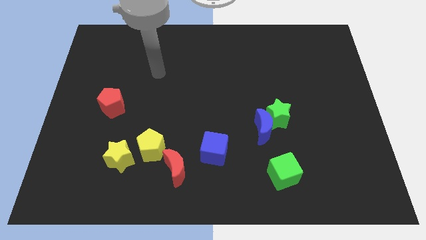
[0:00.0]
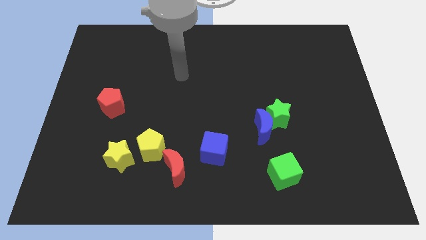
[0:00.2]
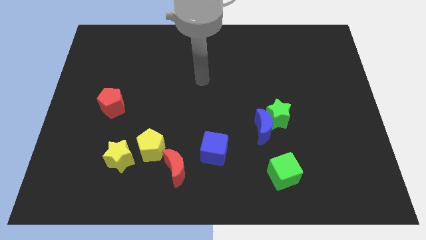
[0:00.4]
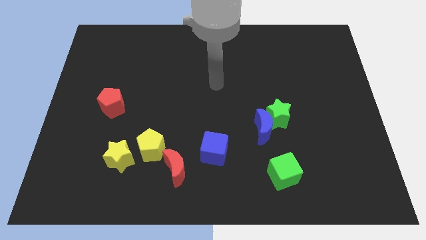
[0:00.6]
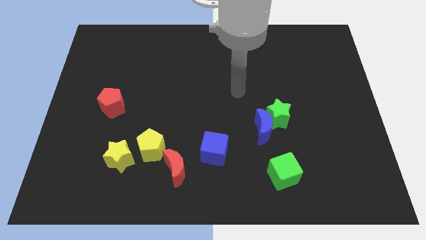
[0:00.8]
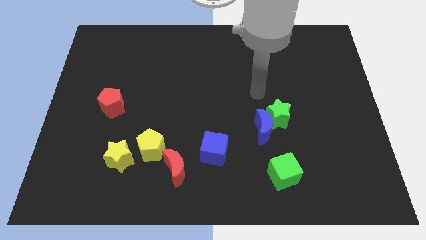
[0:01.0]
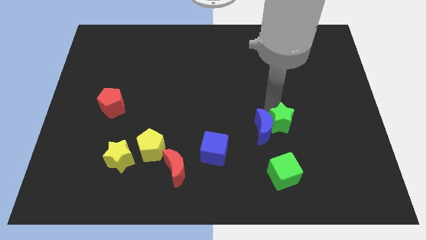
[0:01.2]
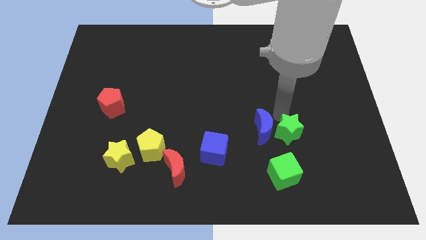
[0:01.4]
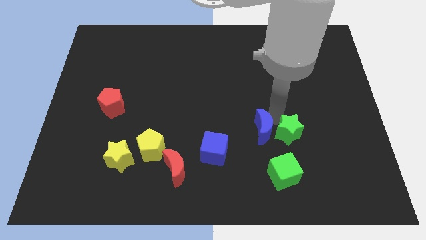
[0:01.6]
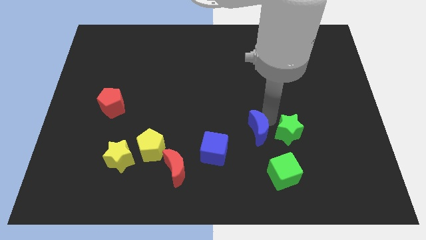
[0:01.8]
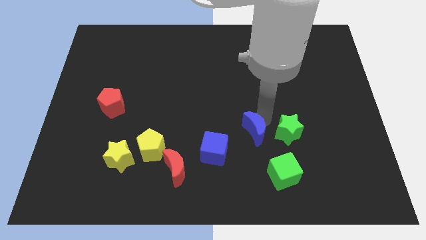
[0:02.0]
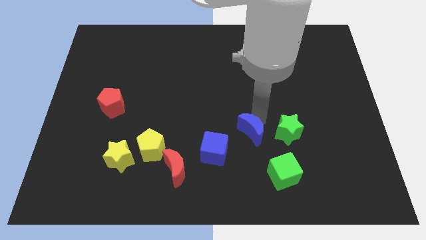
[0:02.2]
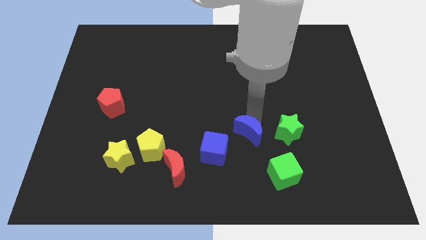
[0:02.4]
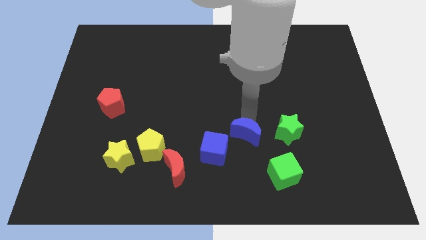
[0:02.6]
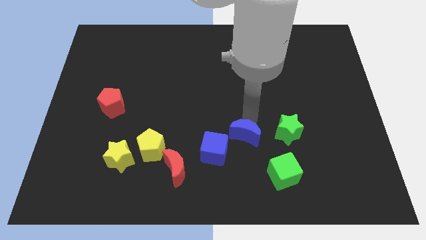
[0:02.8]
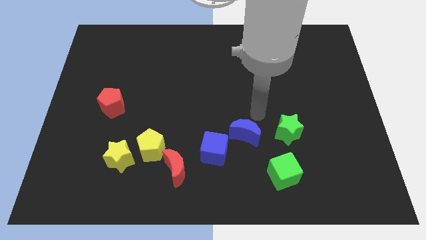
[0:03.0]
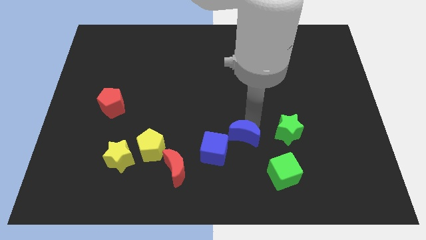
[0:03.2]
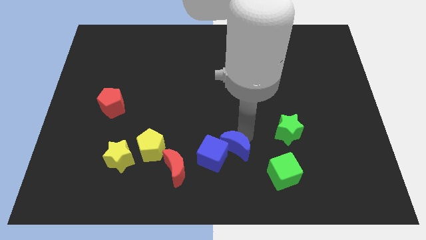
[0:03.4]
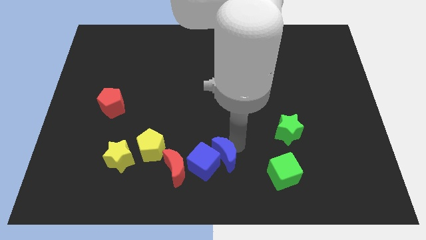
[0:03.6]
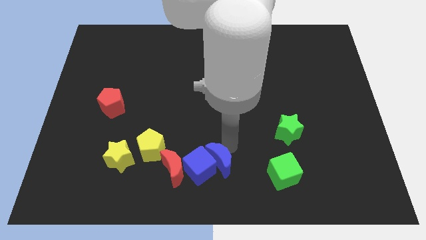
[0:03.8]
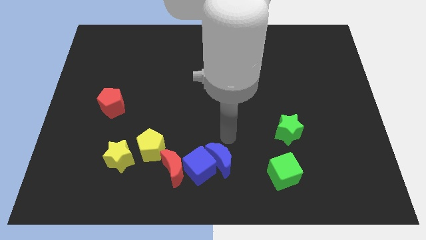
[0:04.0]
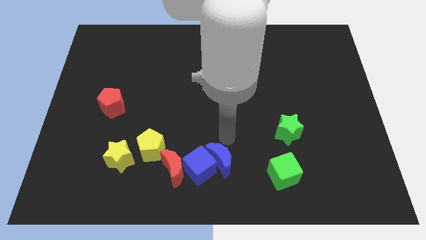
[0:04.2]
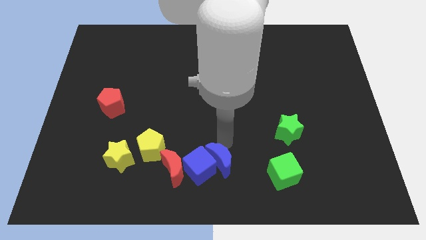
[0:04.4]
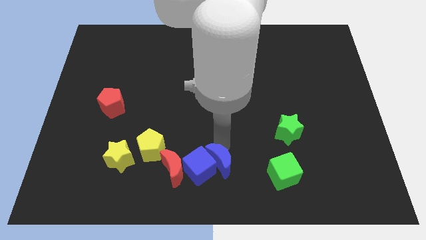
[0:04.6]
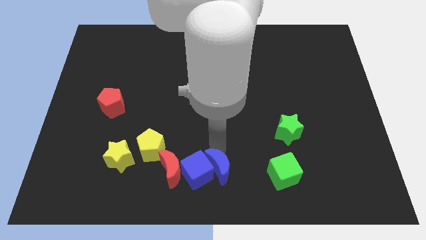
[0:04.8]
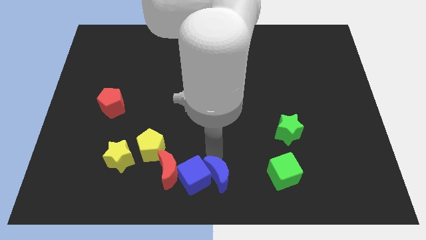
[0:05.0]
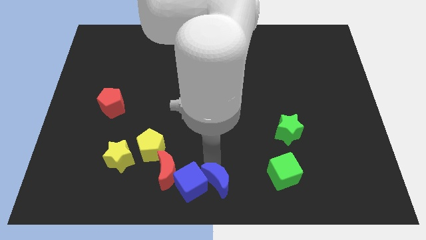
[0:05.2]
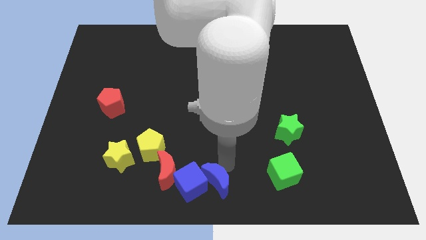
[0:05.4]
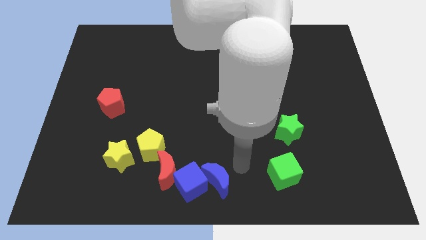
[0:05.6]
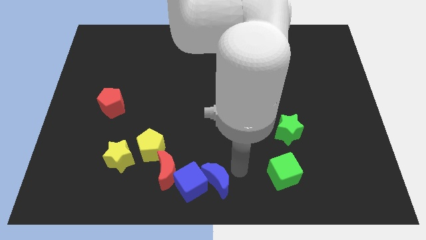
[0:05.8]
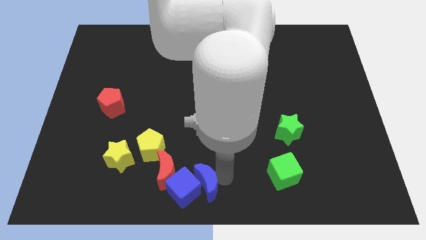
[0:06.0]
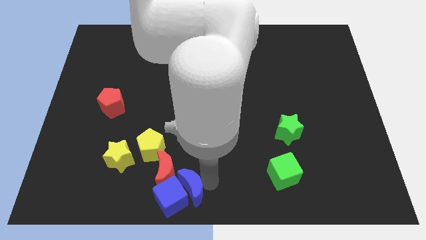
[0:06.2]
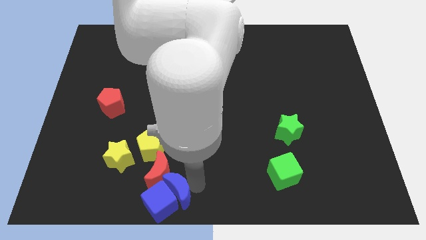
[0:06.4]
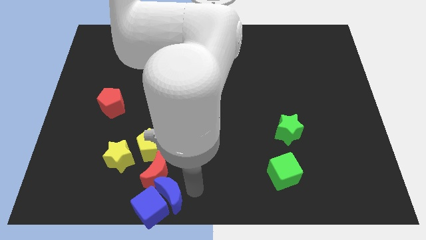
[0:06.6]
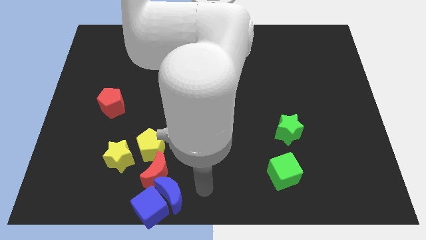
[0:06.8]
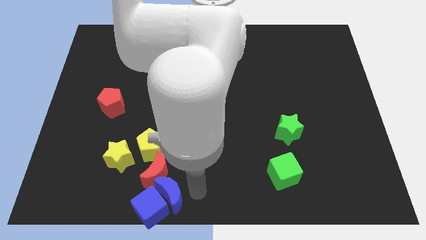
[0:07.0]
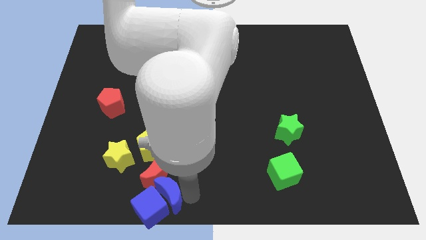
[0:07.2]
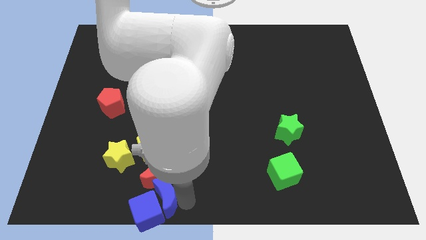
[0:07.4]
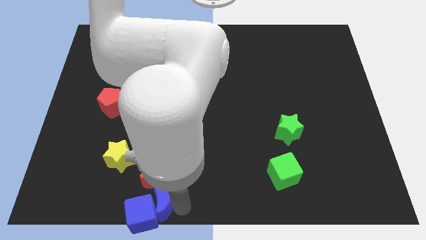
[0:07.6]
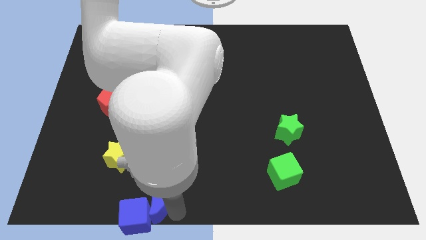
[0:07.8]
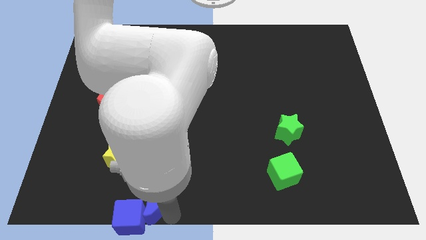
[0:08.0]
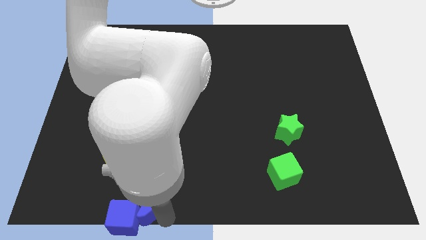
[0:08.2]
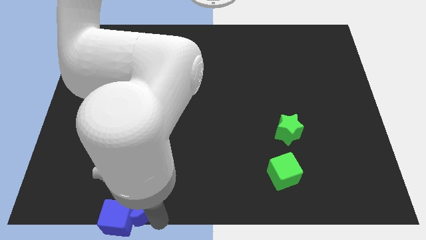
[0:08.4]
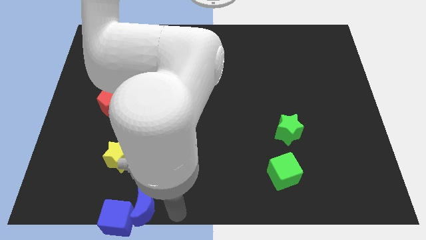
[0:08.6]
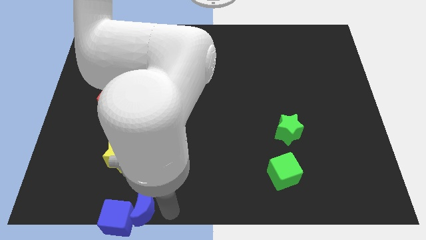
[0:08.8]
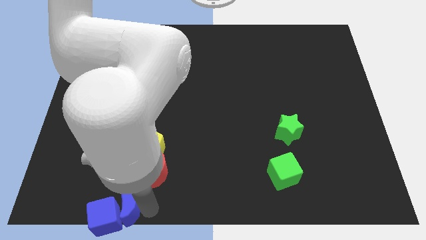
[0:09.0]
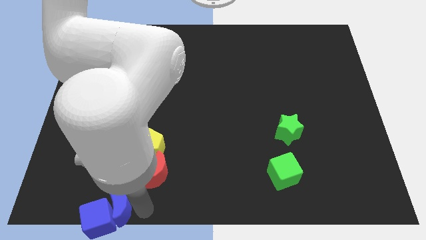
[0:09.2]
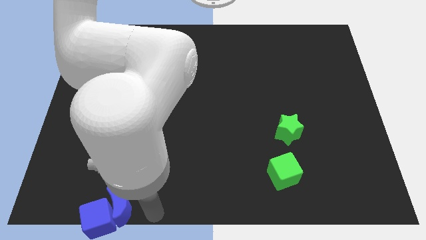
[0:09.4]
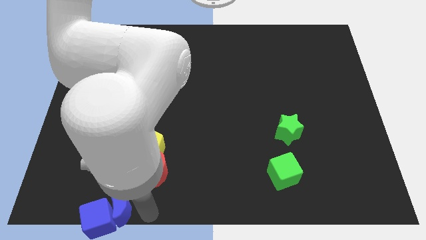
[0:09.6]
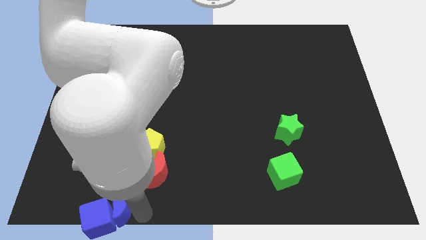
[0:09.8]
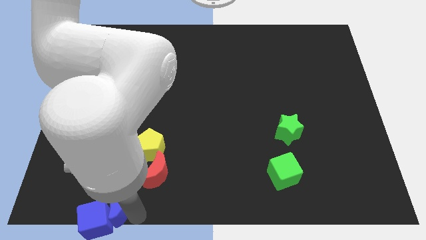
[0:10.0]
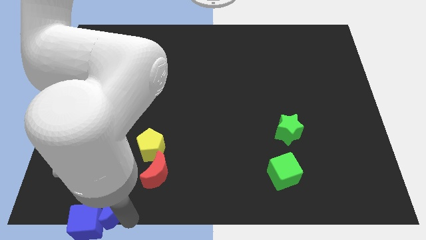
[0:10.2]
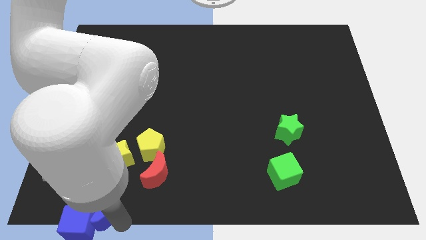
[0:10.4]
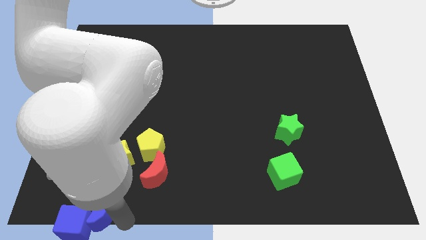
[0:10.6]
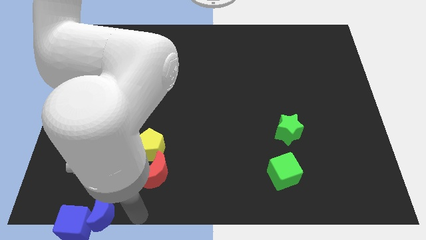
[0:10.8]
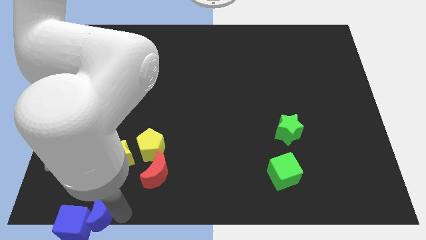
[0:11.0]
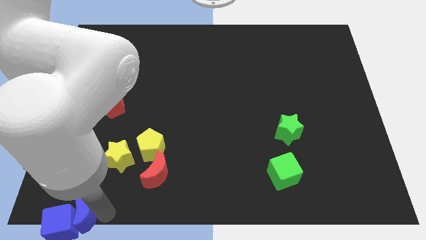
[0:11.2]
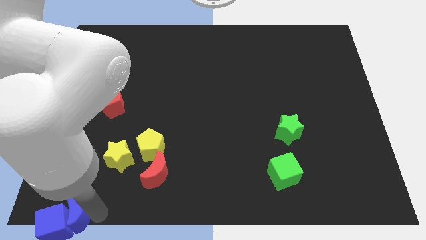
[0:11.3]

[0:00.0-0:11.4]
put the blue moon to the bottom left of the board
